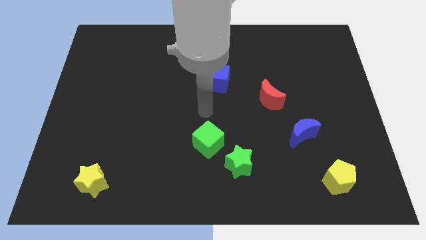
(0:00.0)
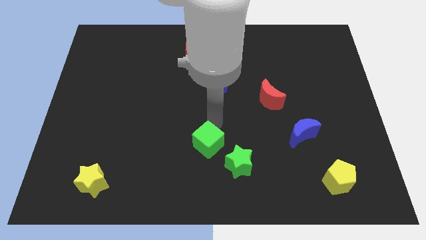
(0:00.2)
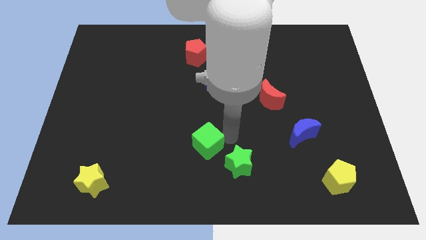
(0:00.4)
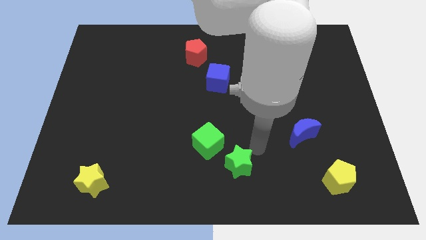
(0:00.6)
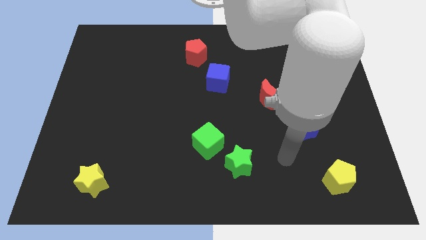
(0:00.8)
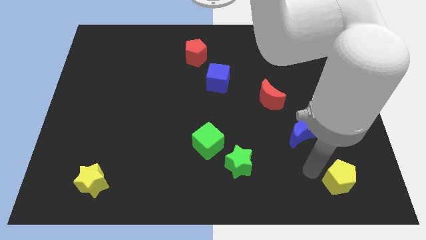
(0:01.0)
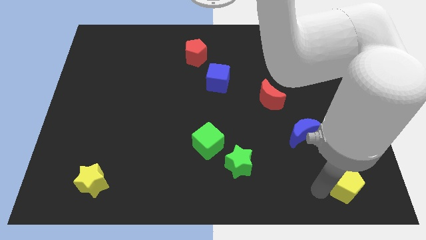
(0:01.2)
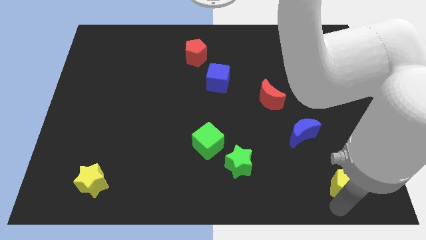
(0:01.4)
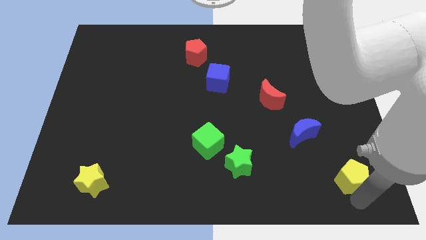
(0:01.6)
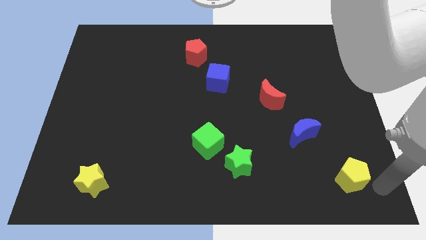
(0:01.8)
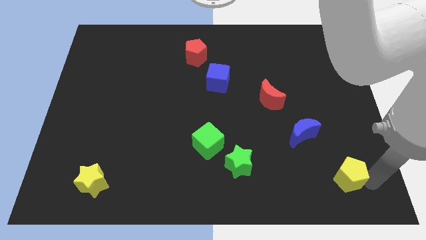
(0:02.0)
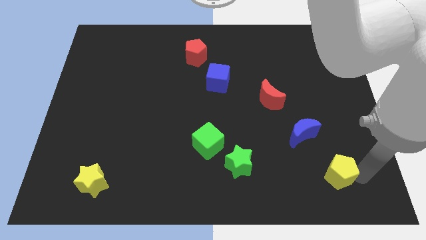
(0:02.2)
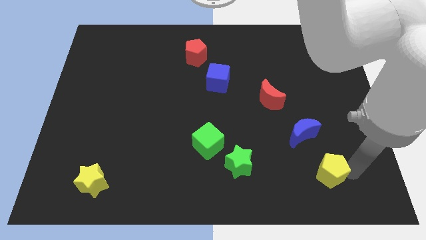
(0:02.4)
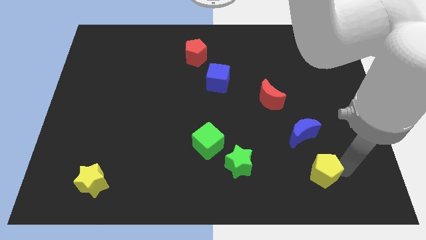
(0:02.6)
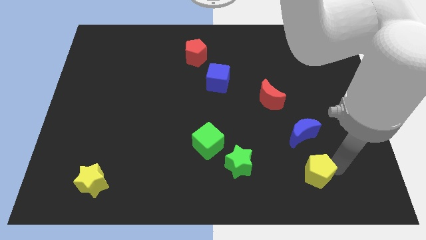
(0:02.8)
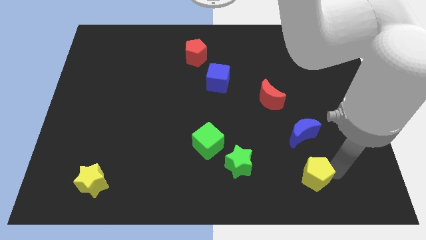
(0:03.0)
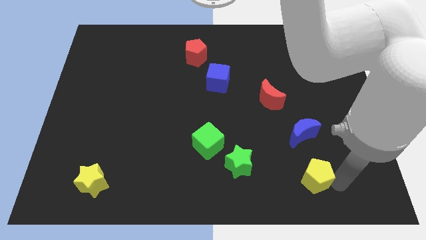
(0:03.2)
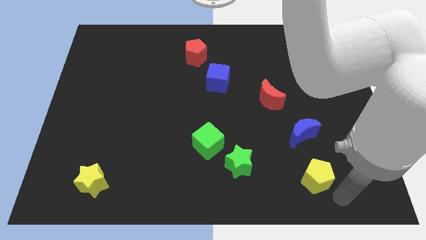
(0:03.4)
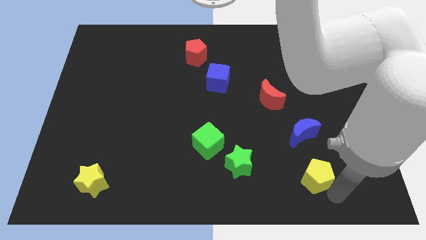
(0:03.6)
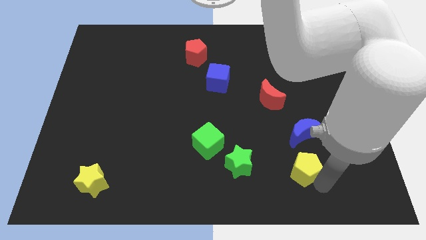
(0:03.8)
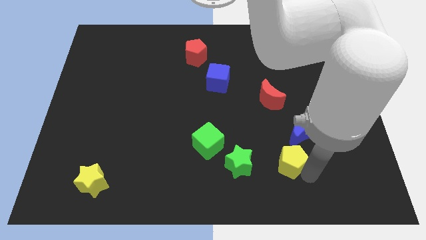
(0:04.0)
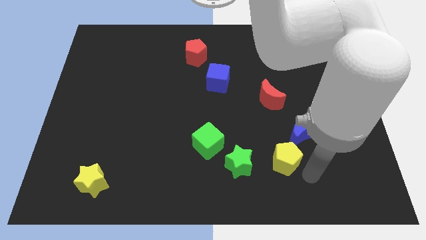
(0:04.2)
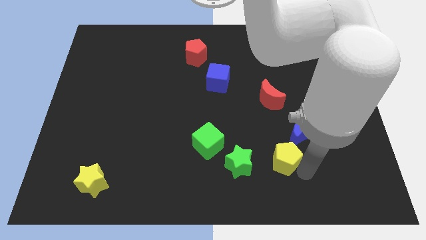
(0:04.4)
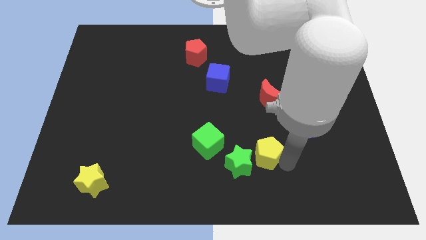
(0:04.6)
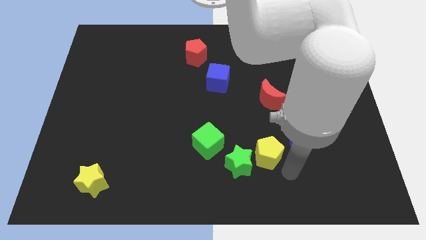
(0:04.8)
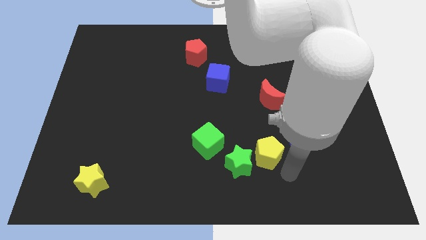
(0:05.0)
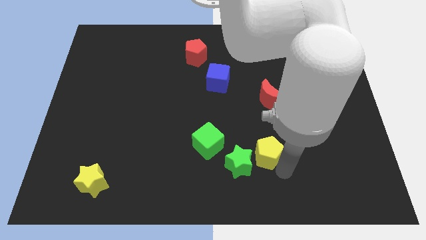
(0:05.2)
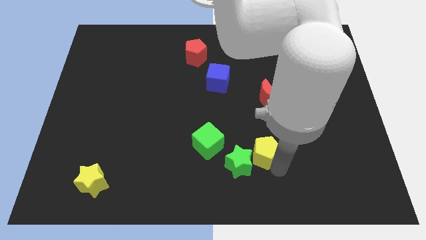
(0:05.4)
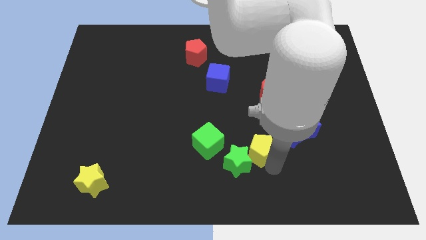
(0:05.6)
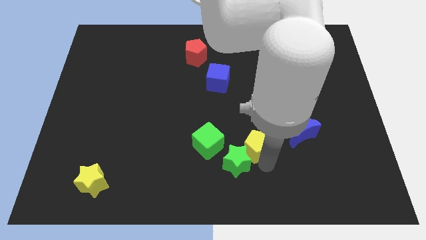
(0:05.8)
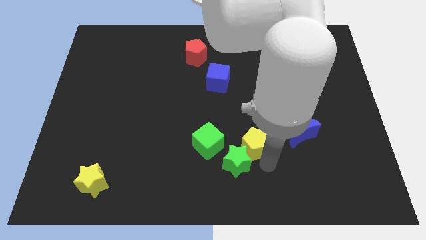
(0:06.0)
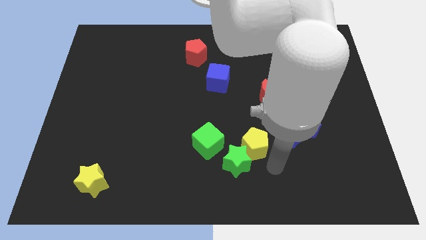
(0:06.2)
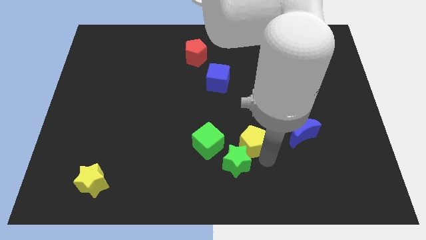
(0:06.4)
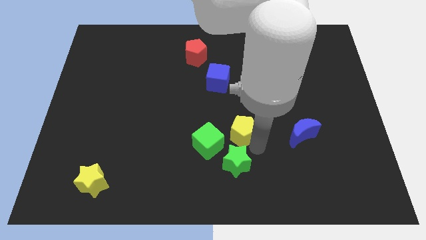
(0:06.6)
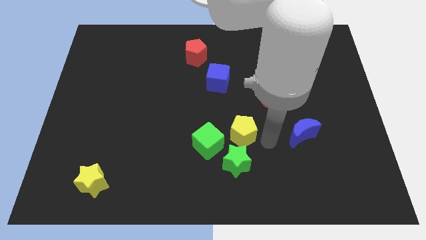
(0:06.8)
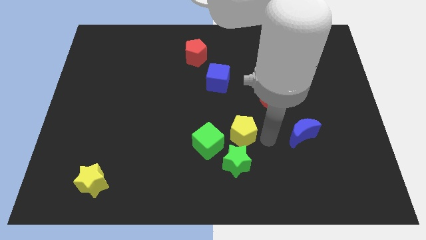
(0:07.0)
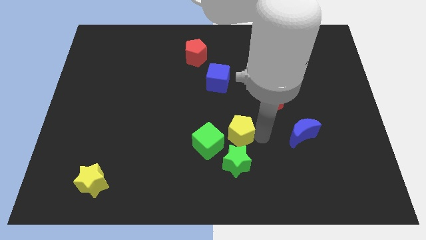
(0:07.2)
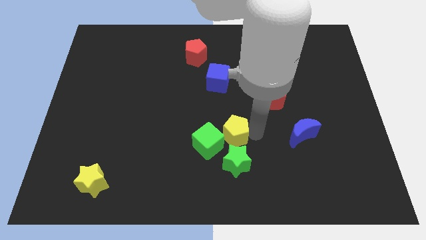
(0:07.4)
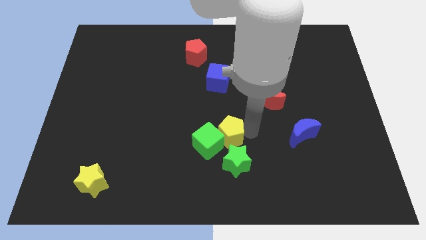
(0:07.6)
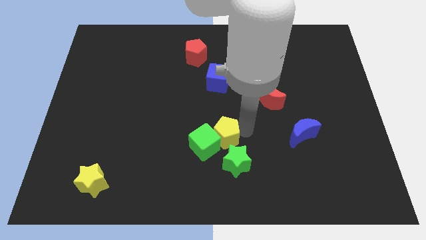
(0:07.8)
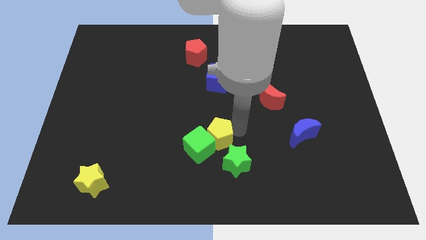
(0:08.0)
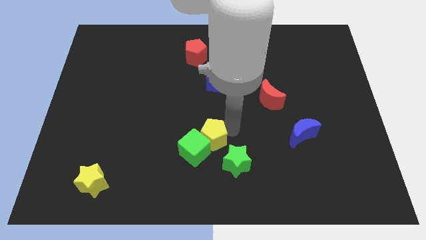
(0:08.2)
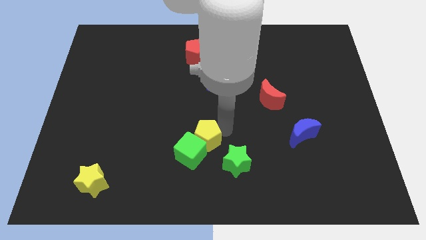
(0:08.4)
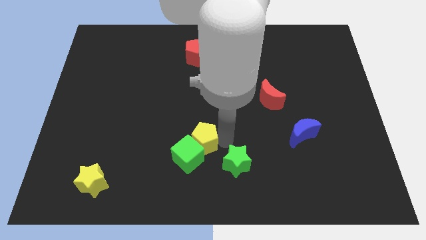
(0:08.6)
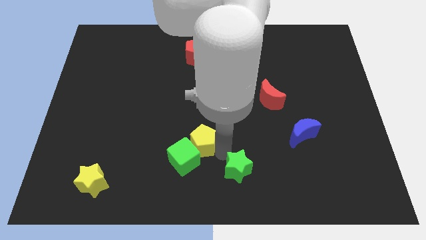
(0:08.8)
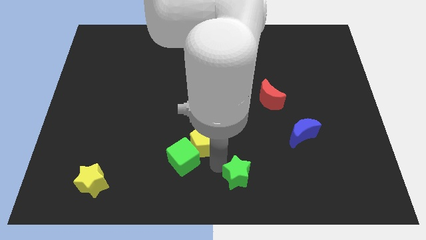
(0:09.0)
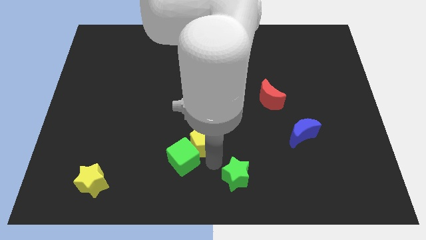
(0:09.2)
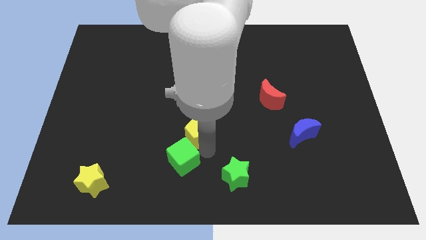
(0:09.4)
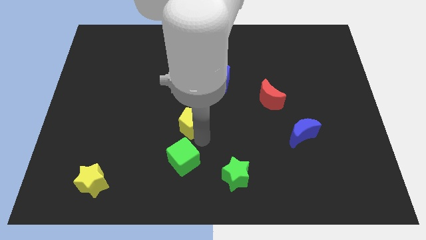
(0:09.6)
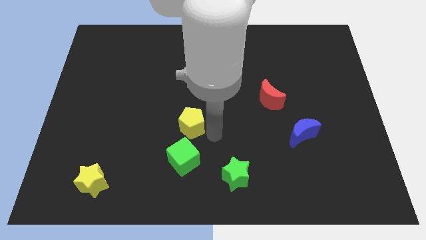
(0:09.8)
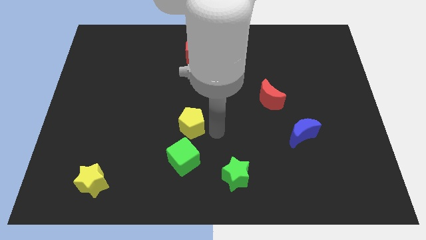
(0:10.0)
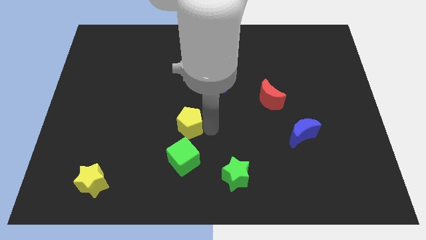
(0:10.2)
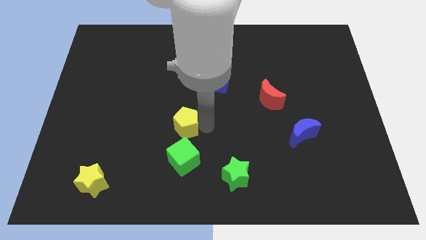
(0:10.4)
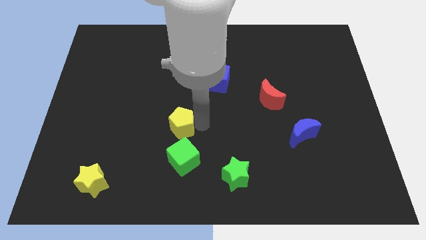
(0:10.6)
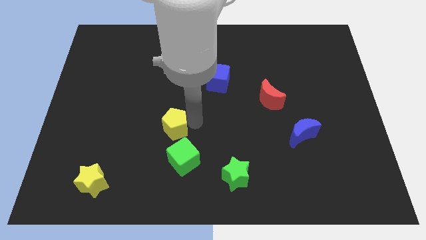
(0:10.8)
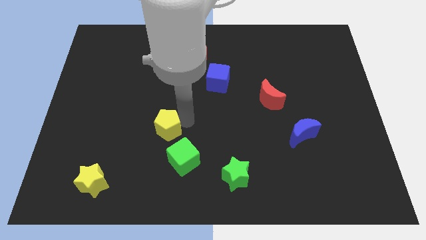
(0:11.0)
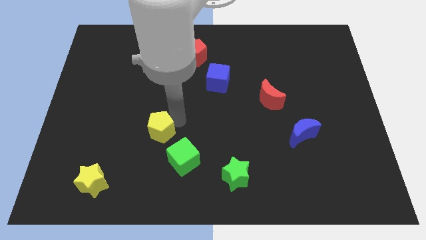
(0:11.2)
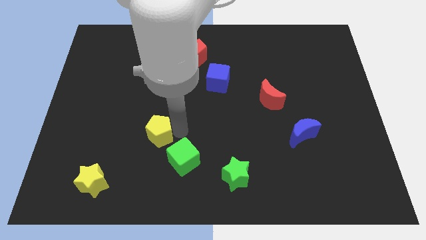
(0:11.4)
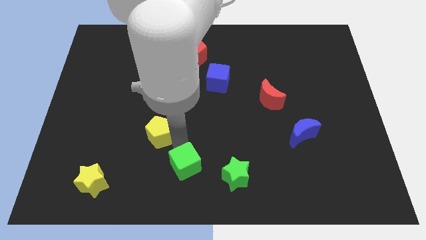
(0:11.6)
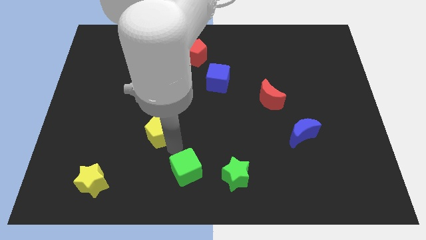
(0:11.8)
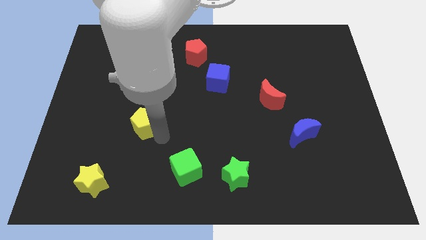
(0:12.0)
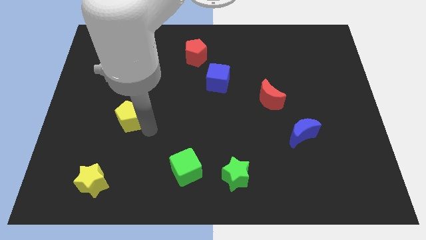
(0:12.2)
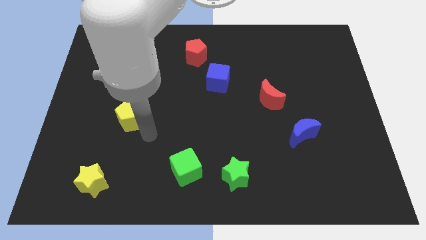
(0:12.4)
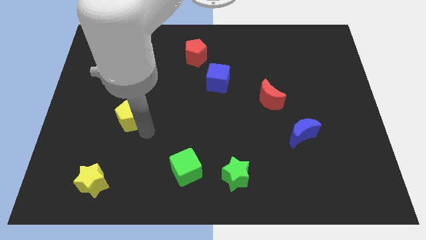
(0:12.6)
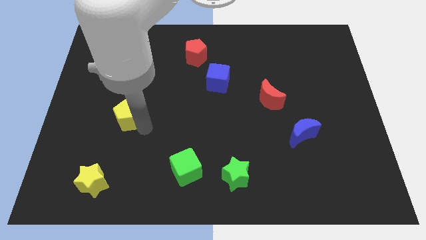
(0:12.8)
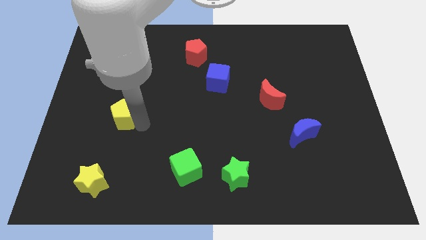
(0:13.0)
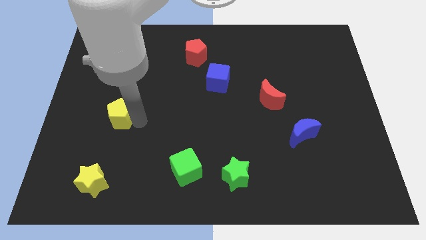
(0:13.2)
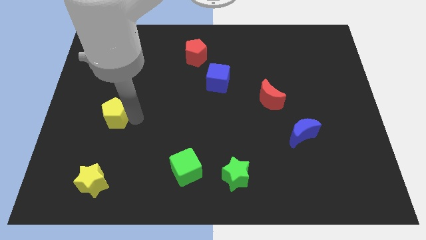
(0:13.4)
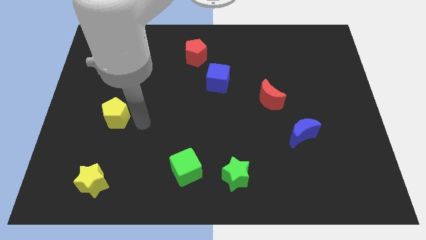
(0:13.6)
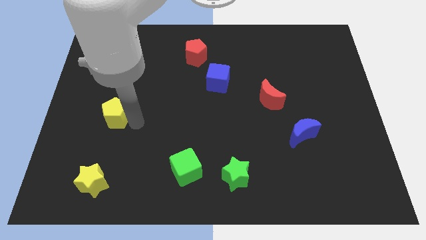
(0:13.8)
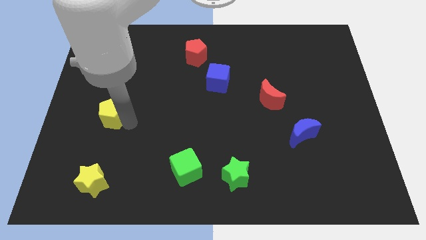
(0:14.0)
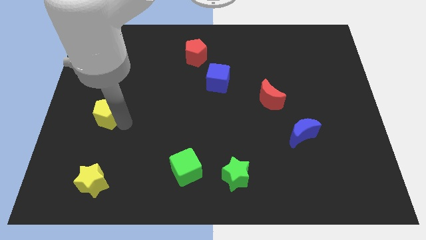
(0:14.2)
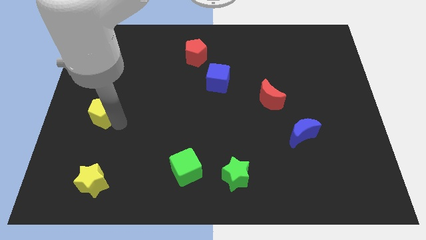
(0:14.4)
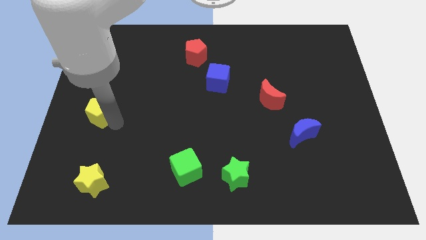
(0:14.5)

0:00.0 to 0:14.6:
put the yellow pentagon to the left side
